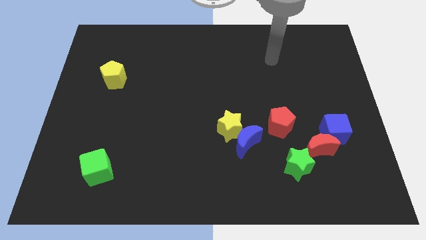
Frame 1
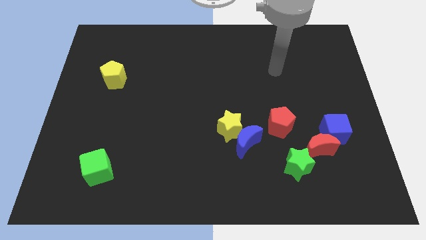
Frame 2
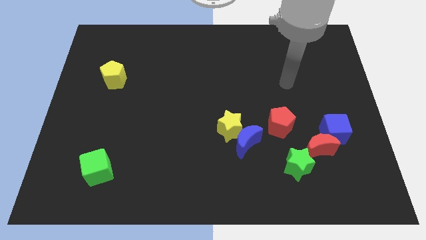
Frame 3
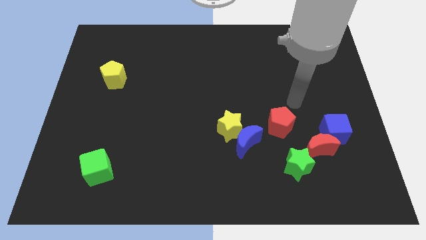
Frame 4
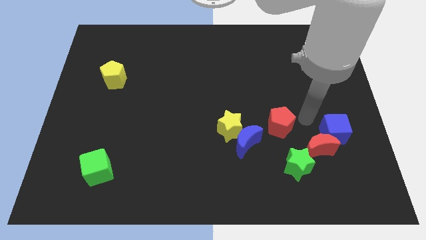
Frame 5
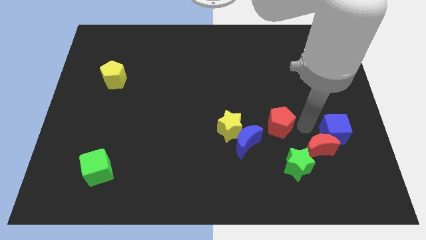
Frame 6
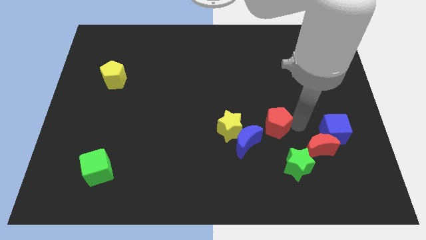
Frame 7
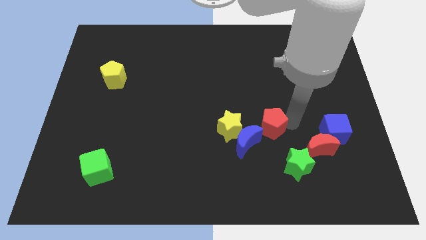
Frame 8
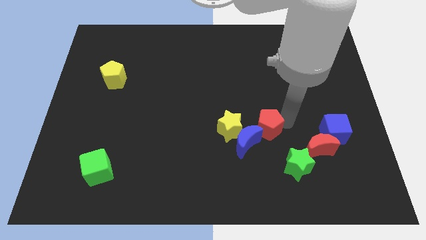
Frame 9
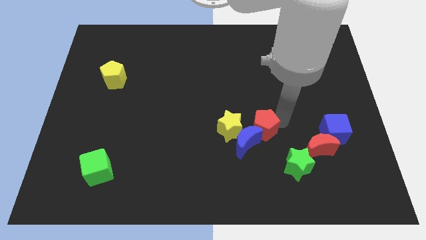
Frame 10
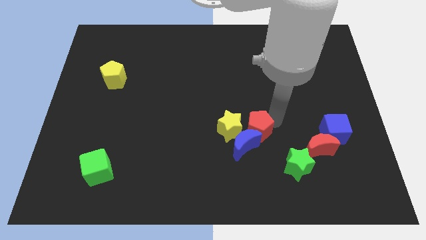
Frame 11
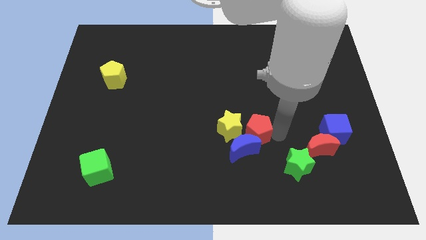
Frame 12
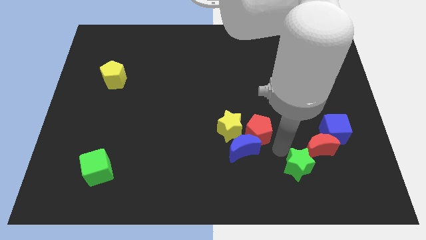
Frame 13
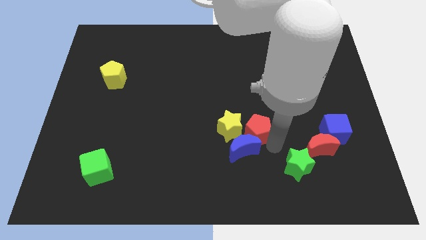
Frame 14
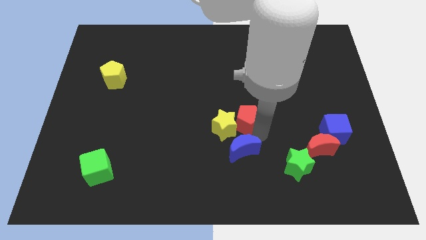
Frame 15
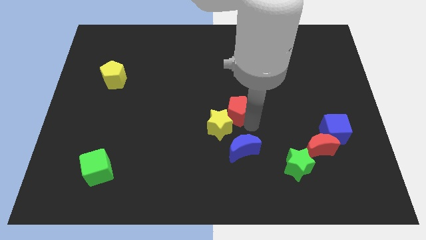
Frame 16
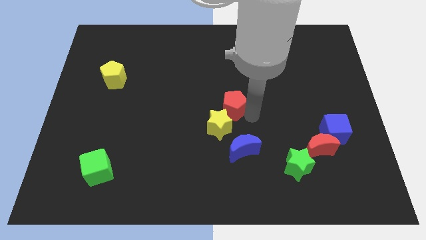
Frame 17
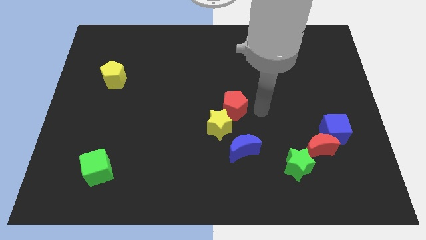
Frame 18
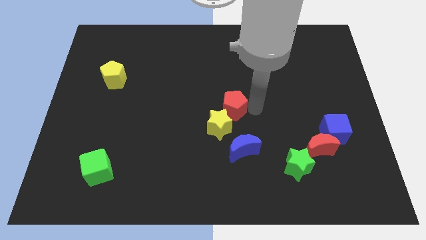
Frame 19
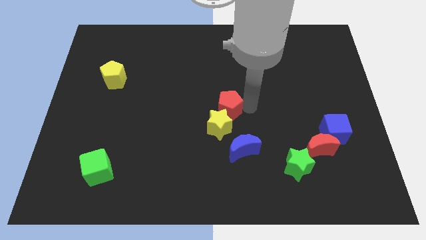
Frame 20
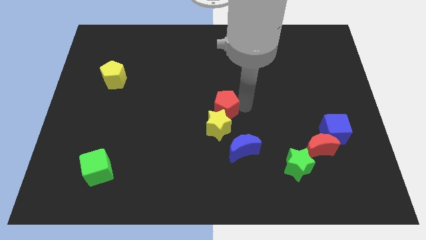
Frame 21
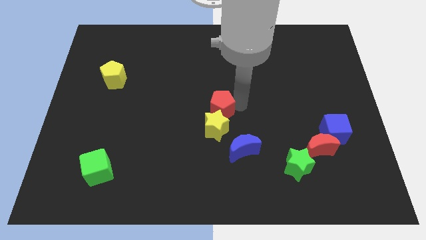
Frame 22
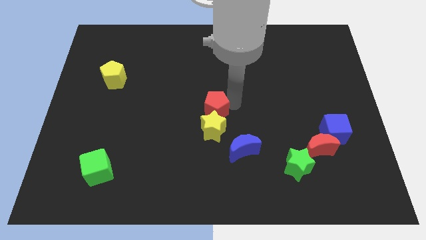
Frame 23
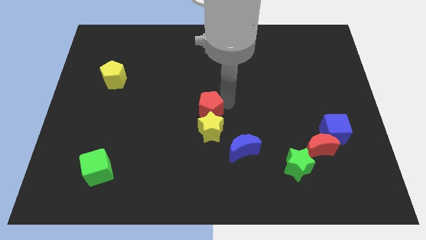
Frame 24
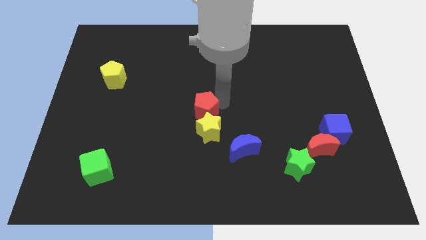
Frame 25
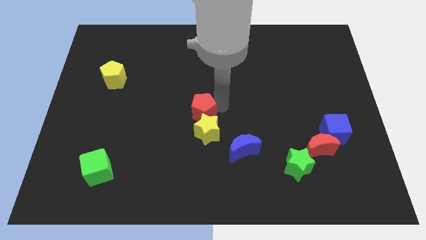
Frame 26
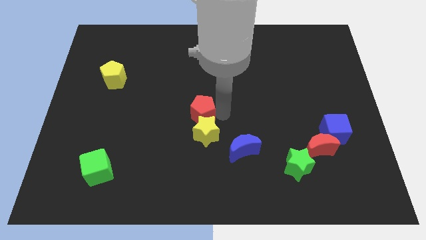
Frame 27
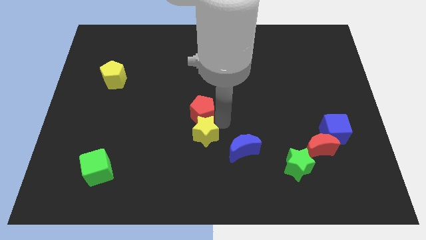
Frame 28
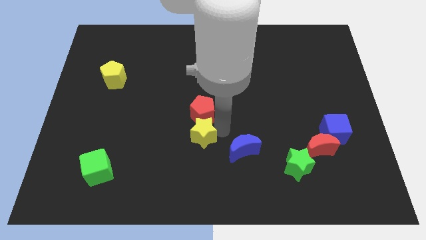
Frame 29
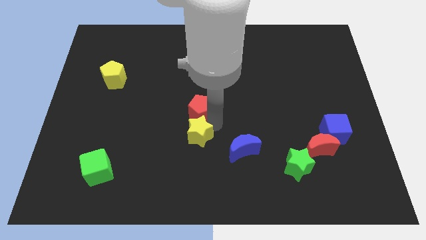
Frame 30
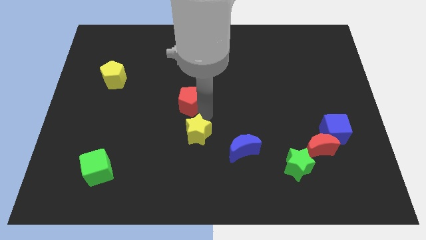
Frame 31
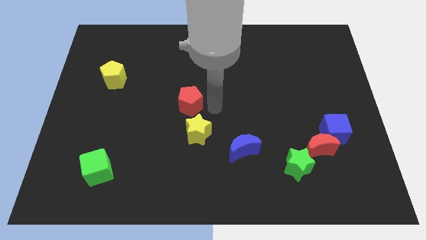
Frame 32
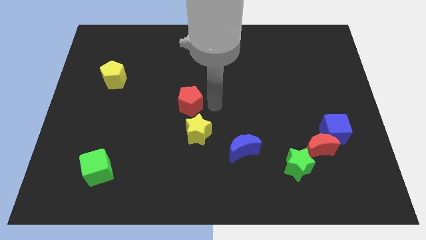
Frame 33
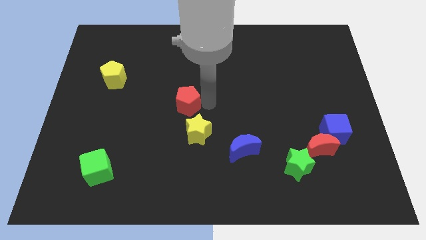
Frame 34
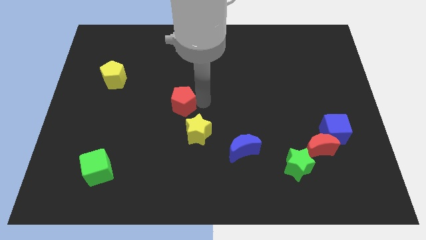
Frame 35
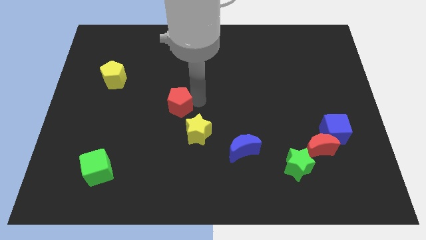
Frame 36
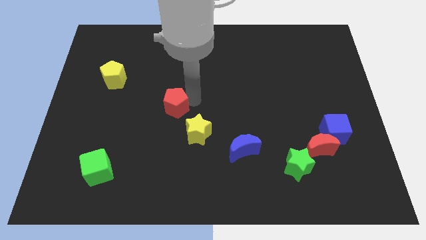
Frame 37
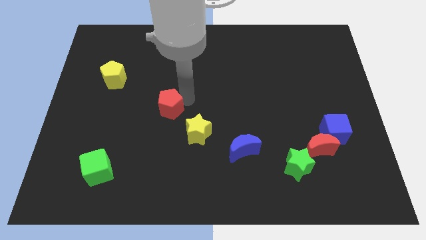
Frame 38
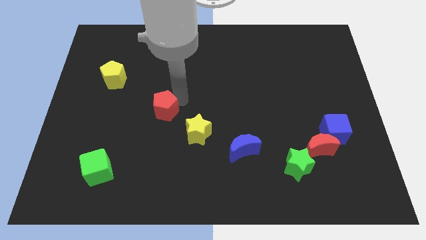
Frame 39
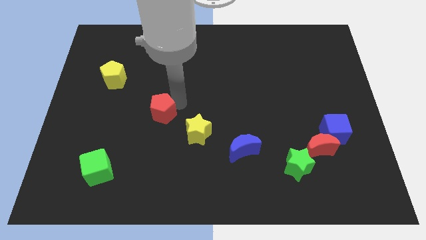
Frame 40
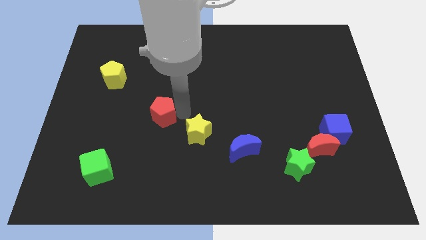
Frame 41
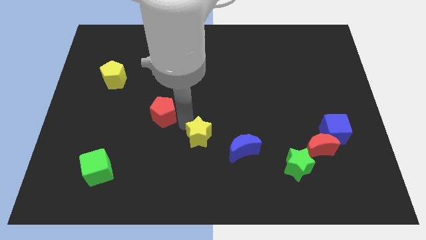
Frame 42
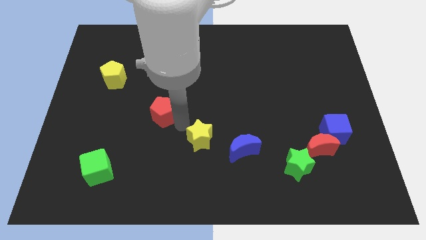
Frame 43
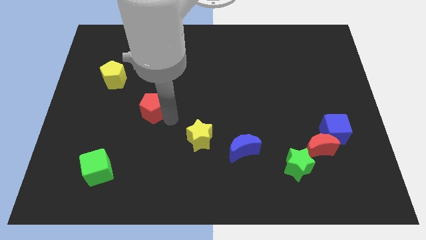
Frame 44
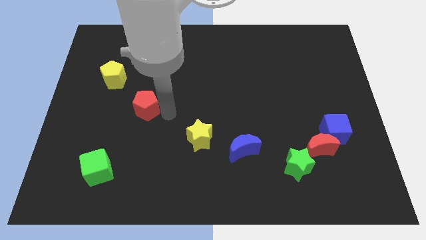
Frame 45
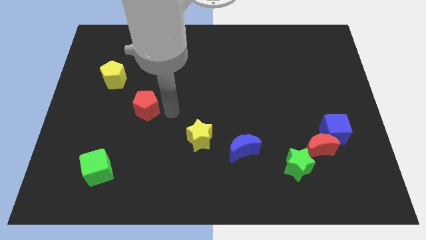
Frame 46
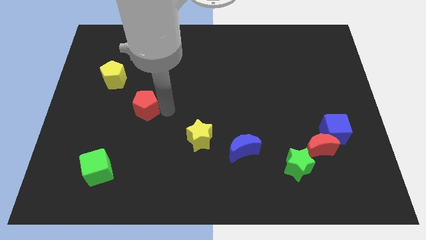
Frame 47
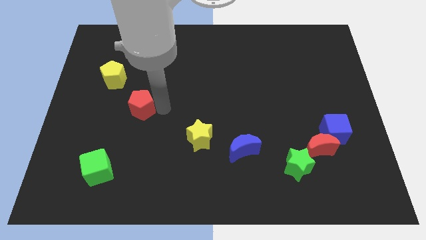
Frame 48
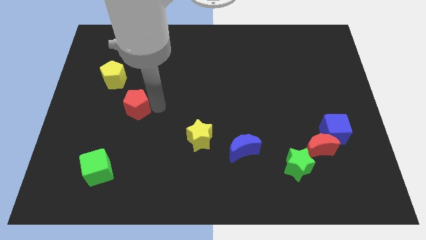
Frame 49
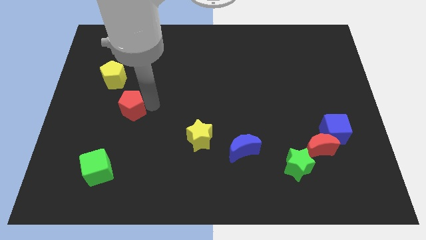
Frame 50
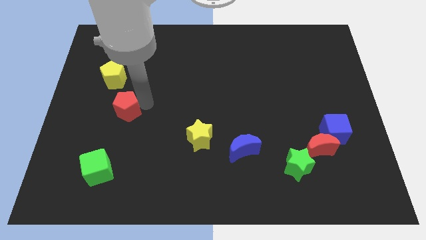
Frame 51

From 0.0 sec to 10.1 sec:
push the red pentagon to the bottom of the yellow pentagon

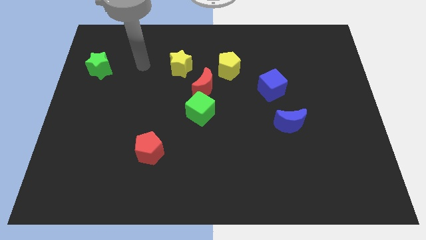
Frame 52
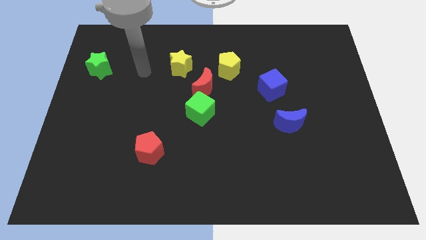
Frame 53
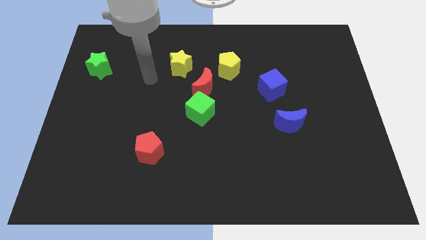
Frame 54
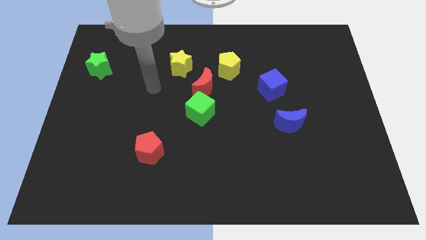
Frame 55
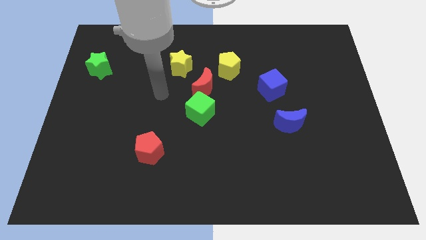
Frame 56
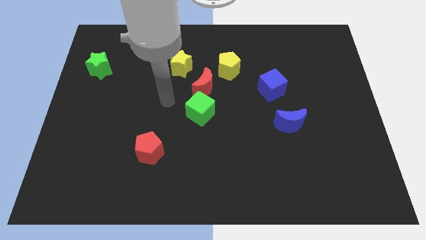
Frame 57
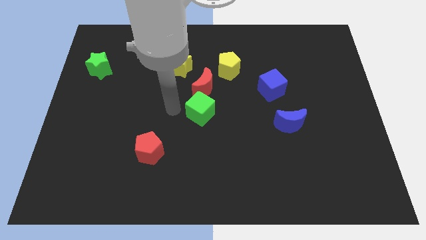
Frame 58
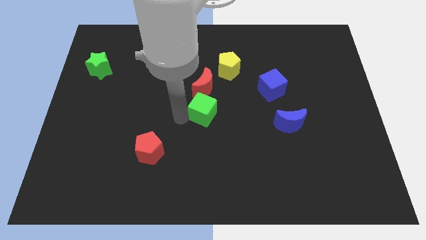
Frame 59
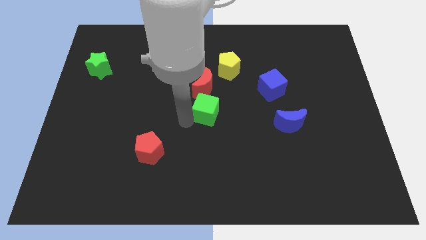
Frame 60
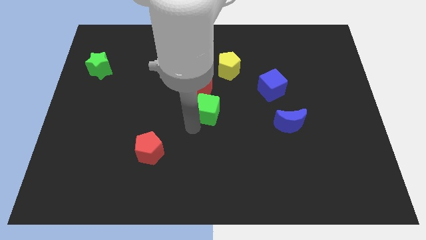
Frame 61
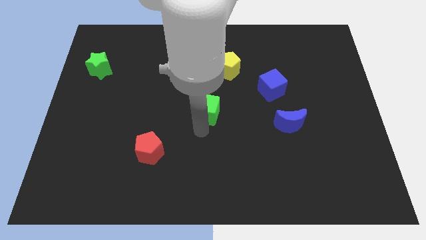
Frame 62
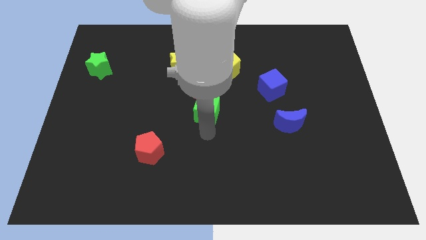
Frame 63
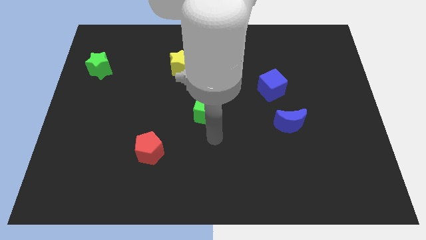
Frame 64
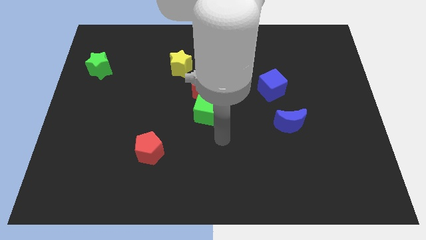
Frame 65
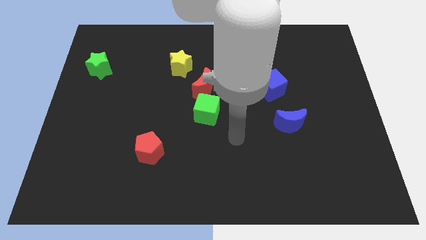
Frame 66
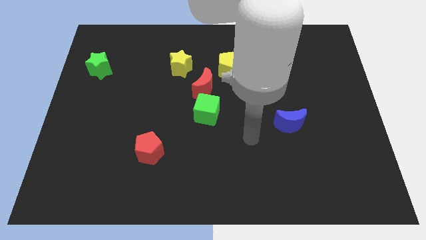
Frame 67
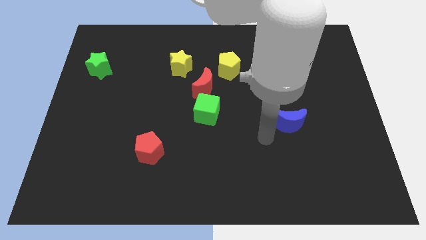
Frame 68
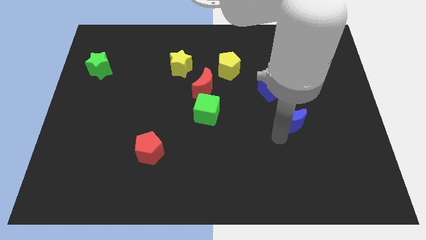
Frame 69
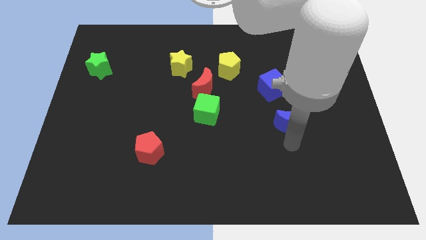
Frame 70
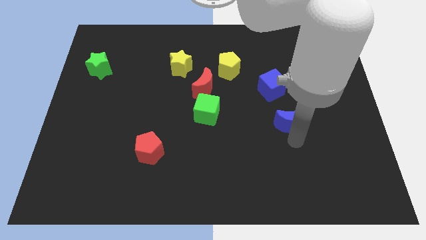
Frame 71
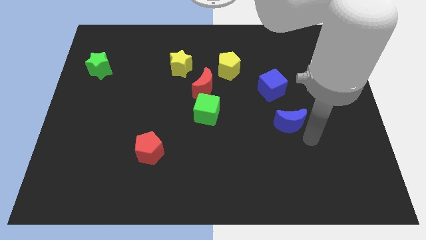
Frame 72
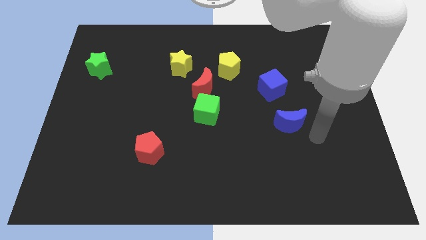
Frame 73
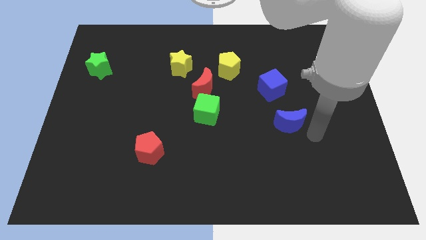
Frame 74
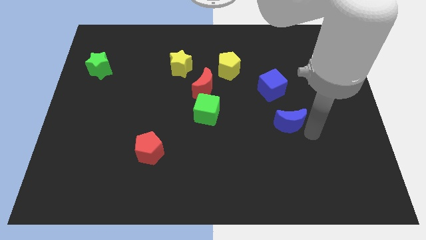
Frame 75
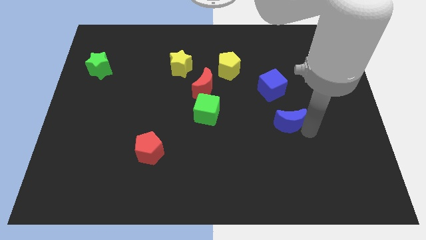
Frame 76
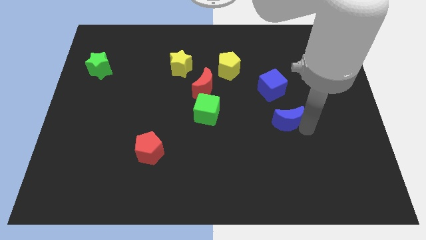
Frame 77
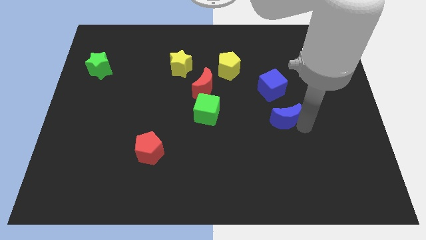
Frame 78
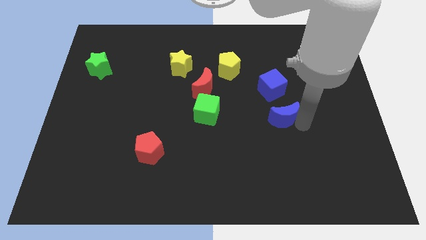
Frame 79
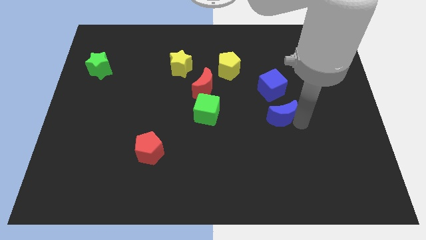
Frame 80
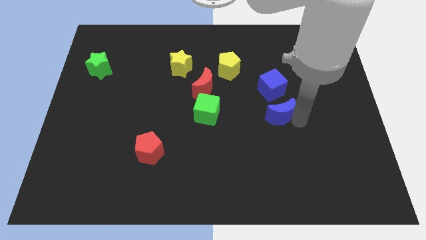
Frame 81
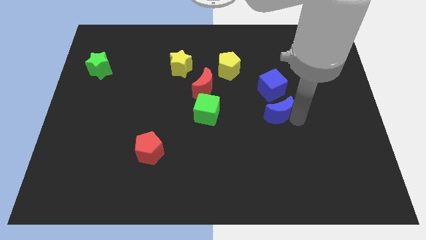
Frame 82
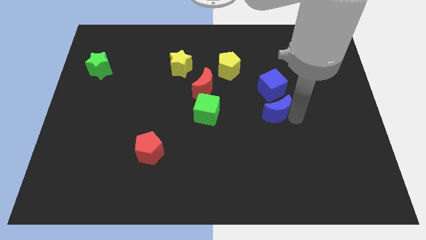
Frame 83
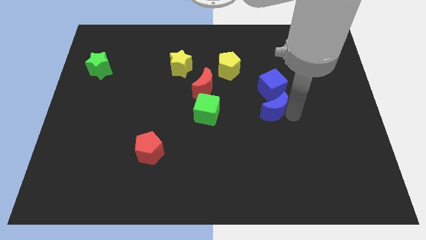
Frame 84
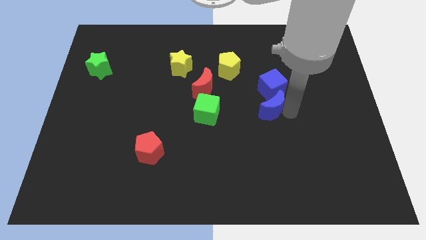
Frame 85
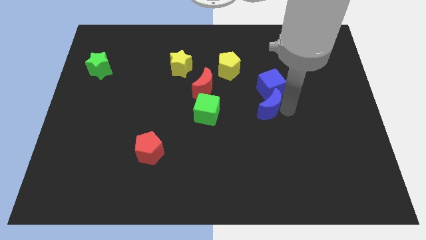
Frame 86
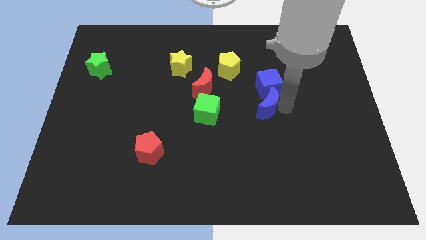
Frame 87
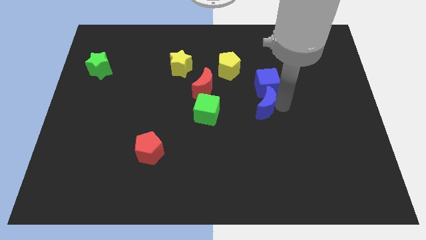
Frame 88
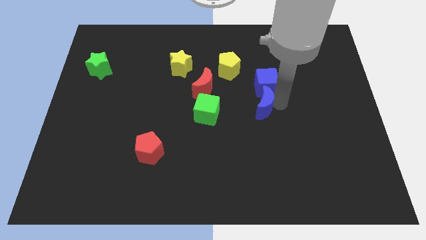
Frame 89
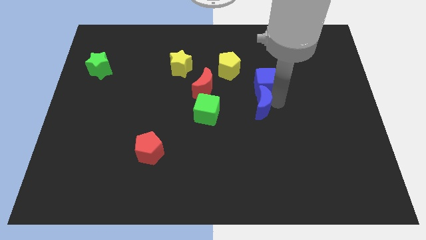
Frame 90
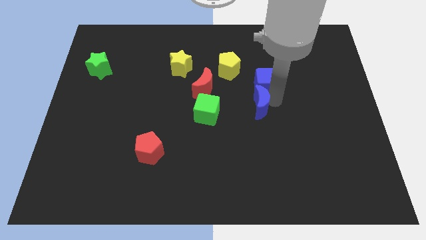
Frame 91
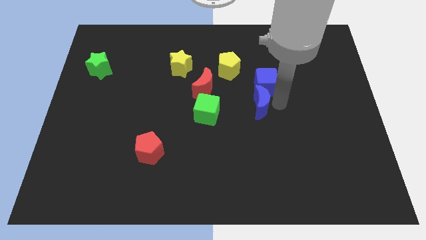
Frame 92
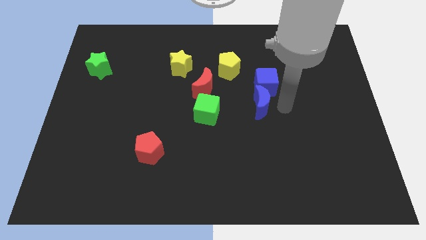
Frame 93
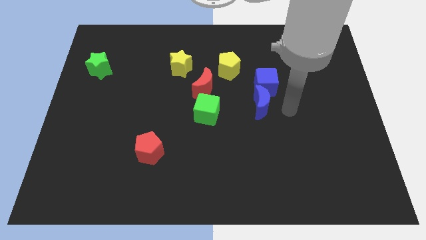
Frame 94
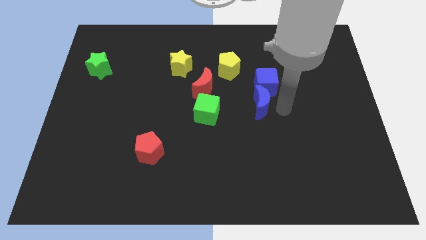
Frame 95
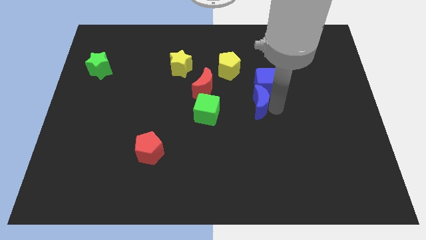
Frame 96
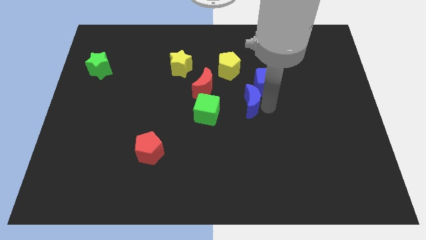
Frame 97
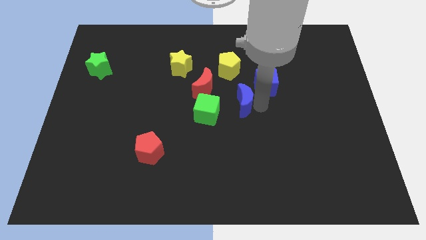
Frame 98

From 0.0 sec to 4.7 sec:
put the blue moon to the bottom of the yellow pentagon
